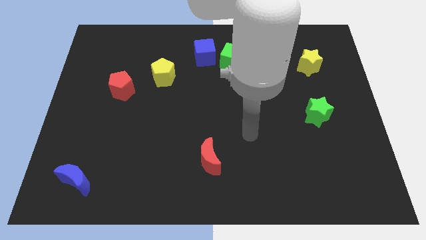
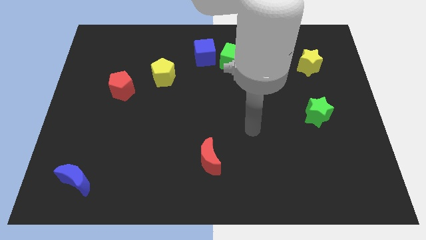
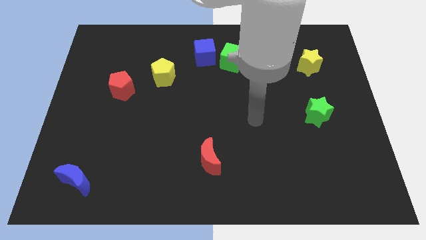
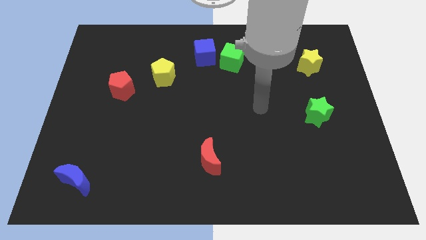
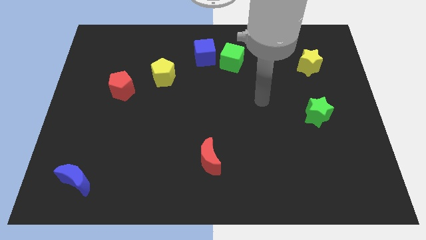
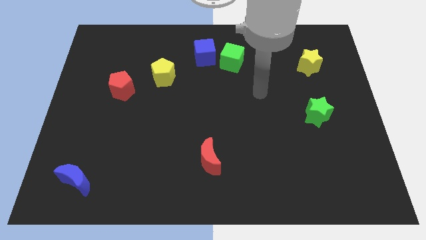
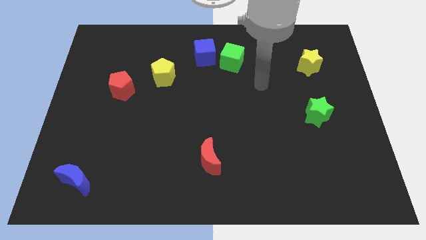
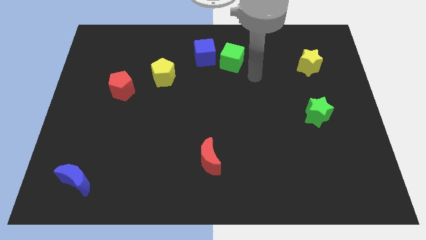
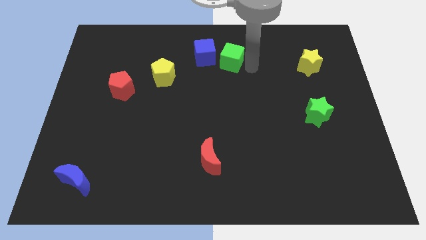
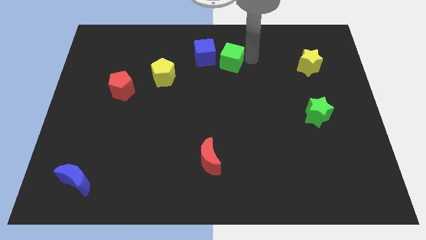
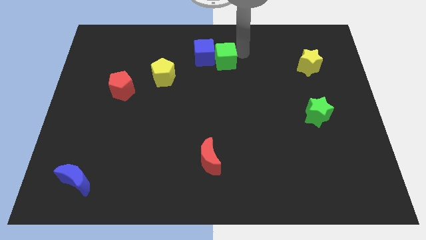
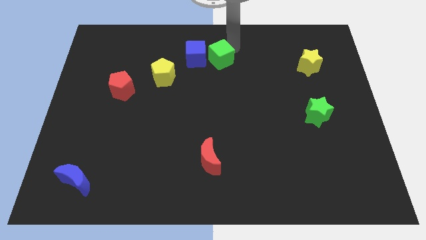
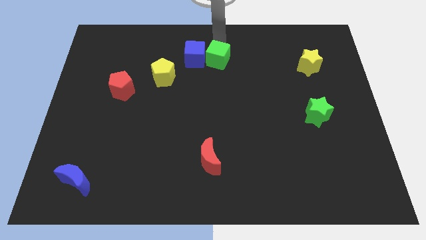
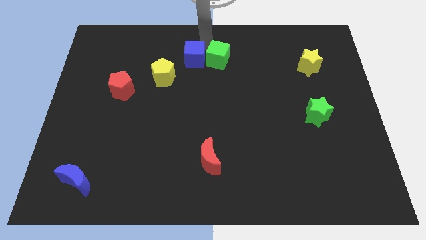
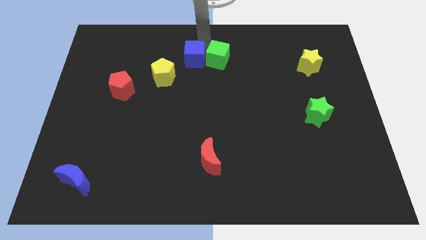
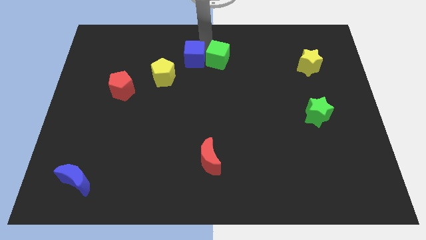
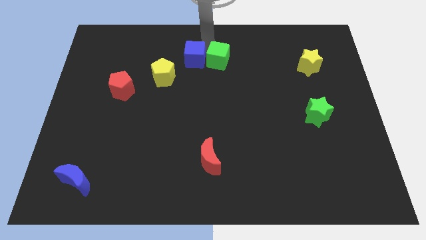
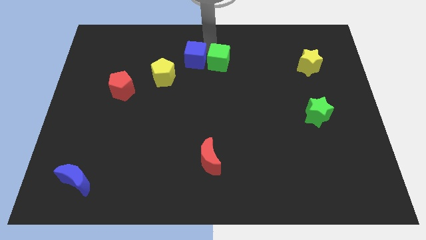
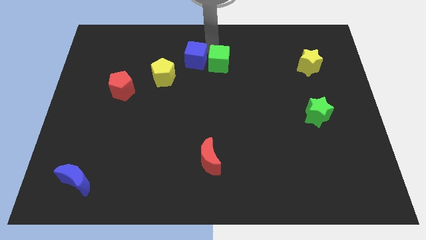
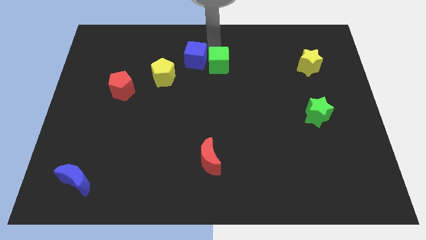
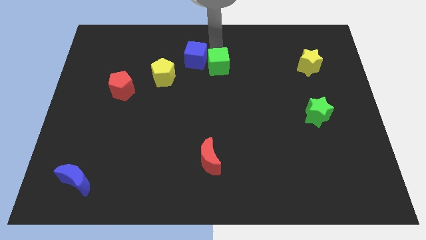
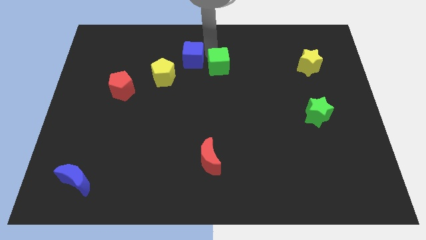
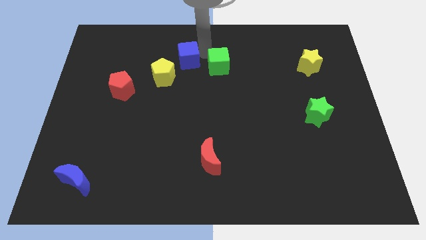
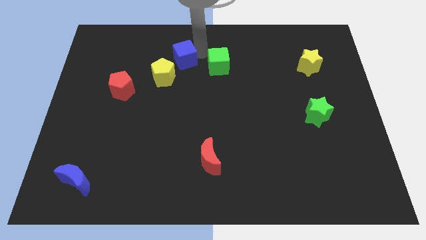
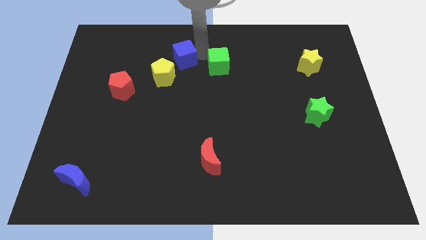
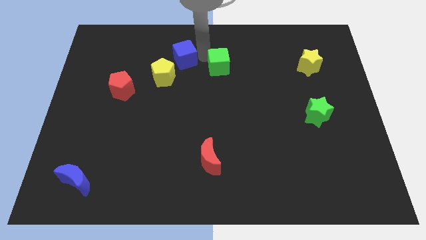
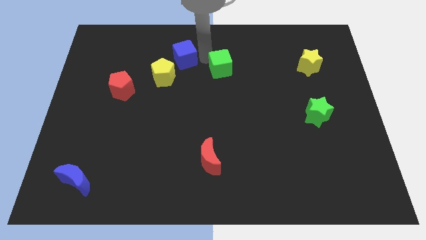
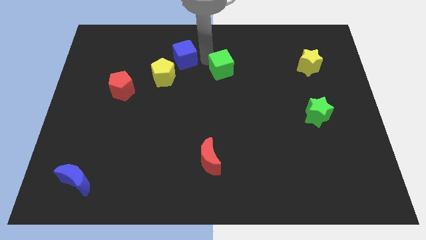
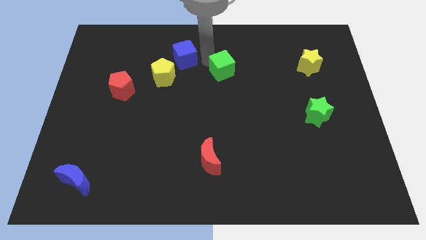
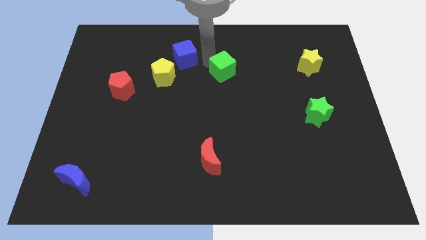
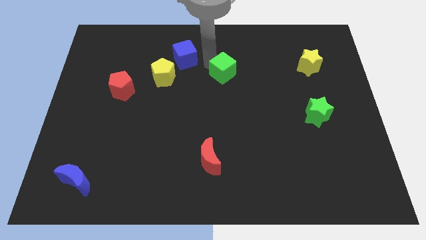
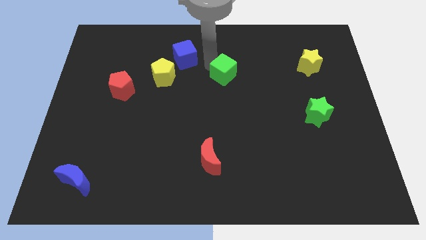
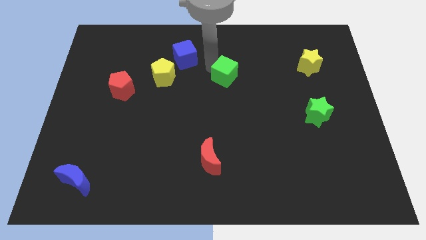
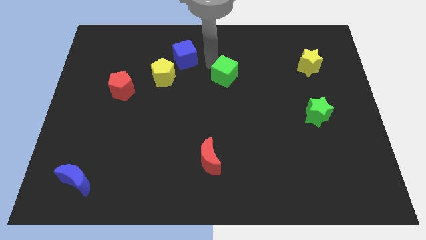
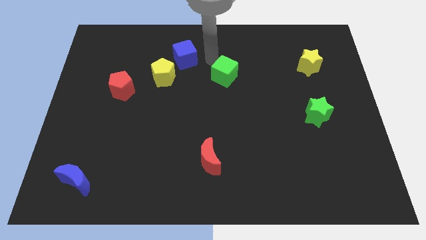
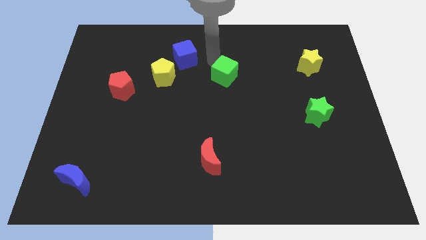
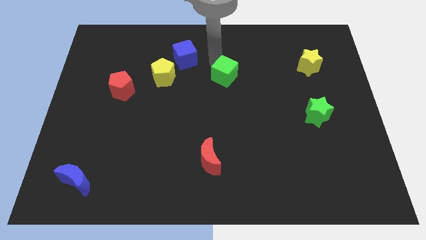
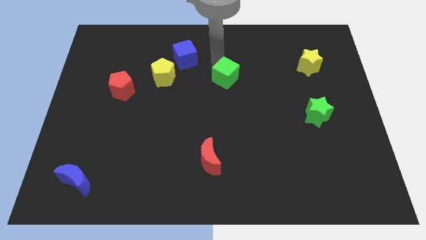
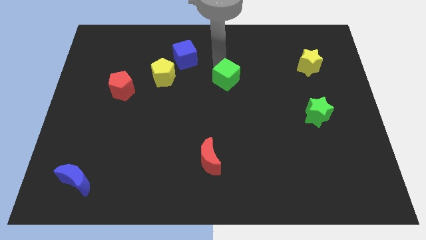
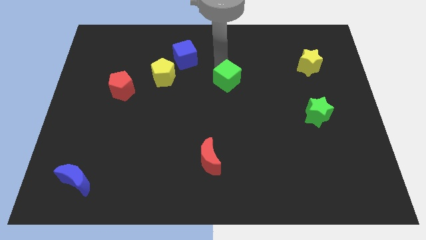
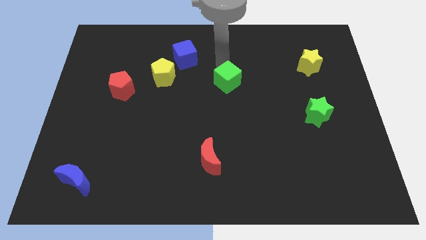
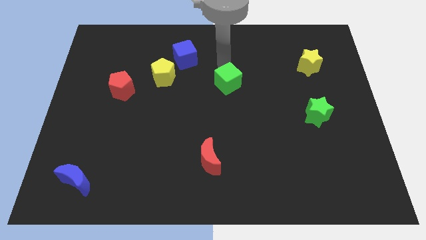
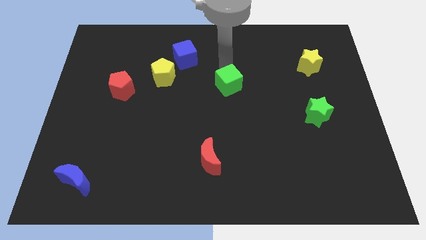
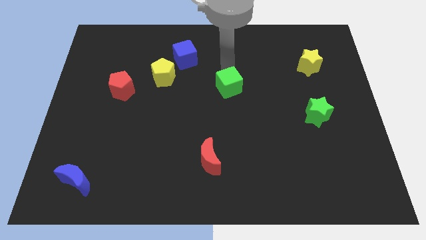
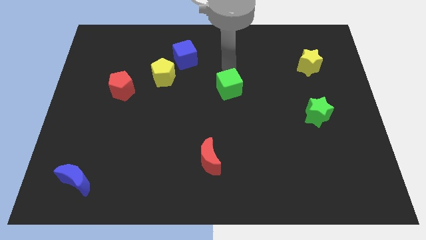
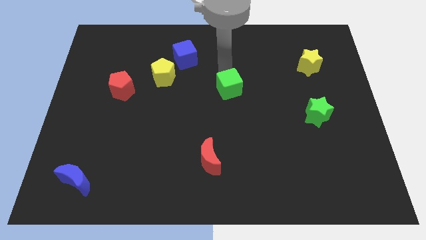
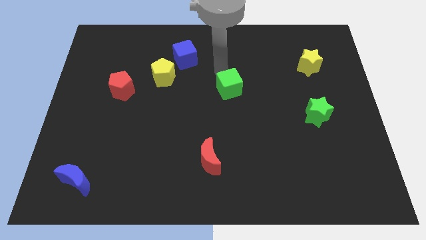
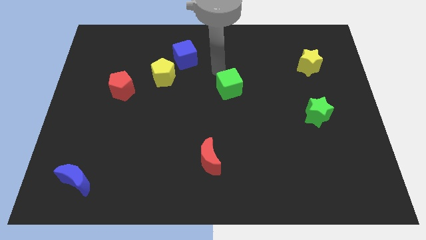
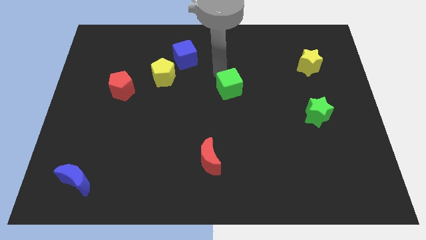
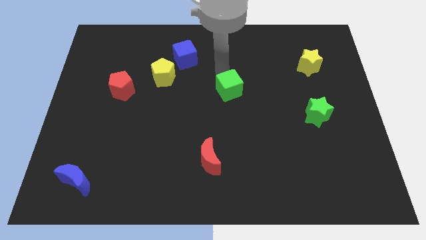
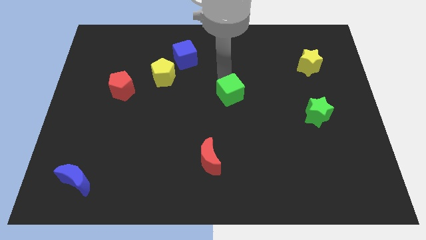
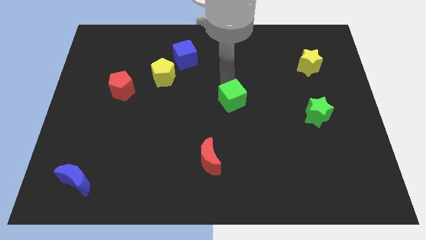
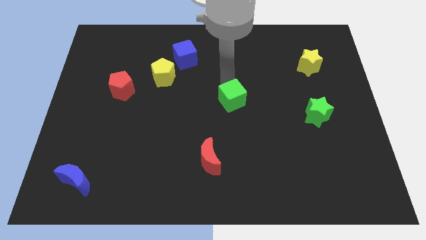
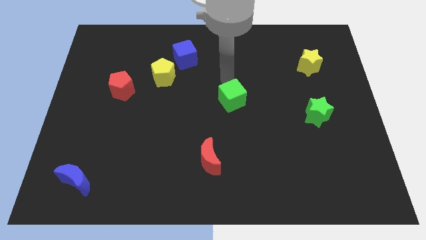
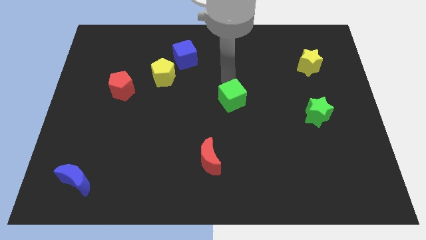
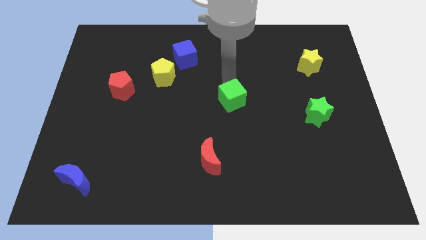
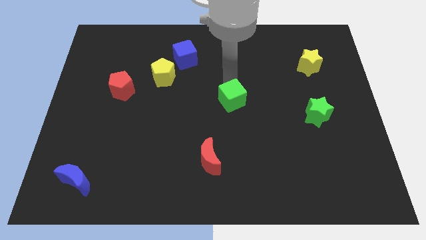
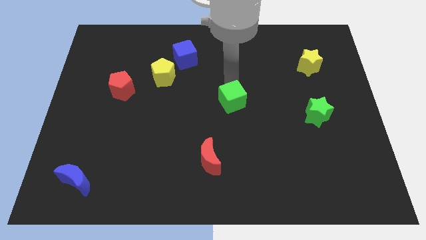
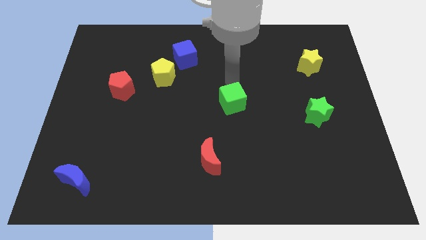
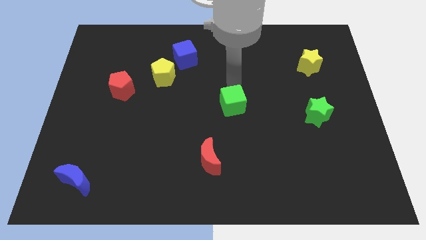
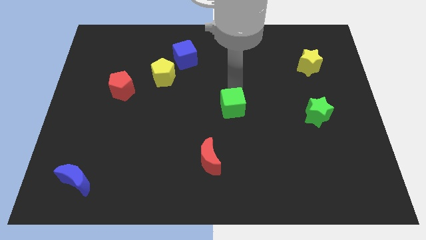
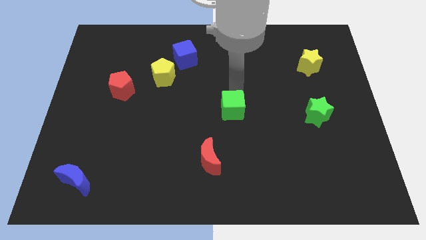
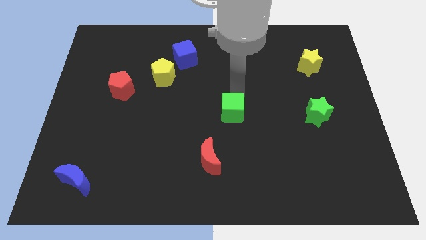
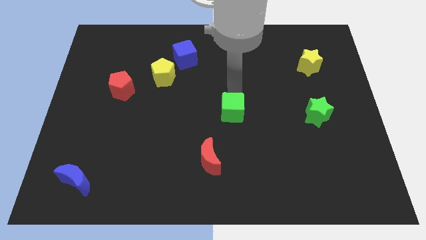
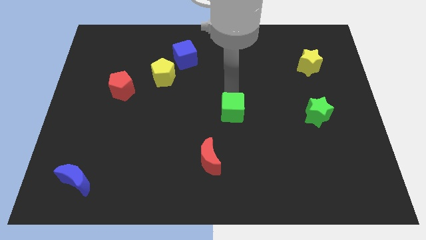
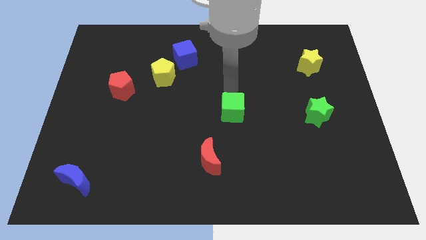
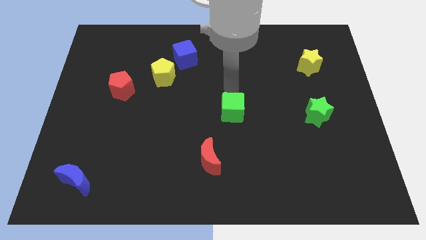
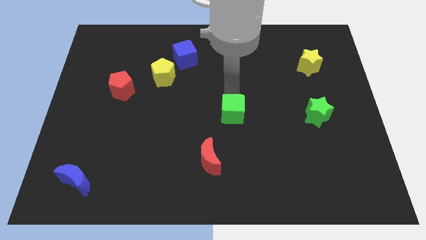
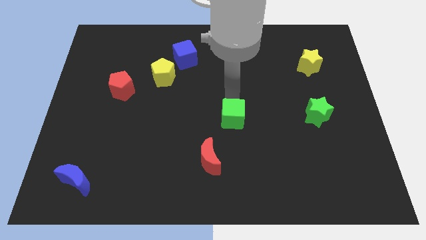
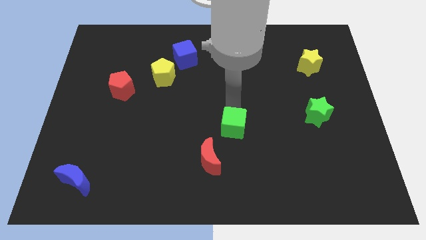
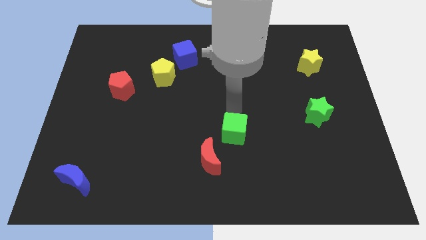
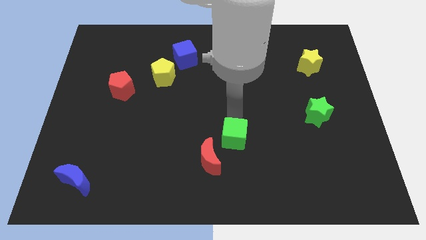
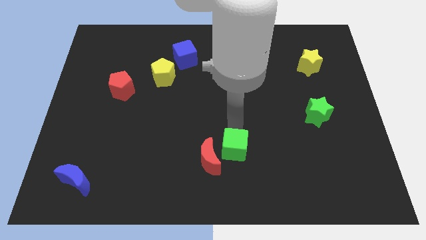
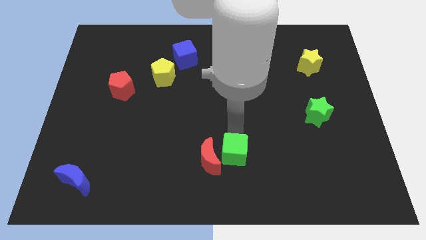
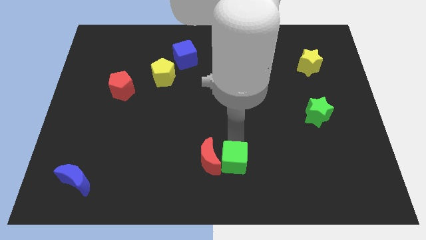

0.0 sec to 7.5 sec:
put the green cube to the bottom side
